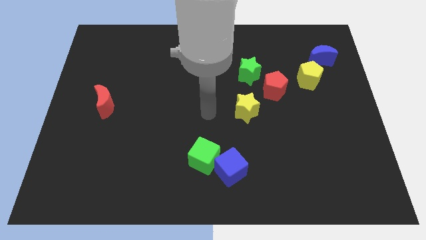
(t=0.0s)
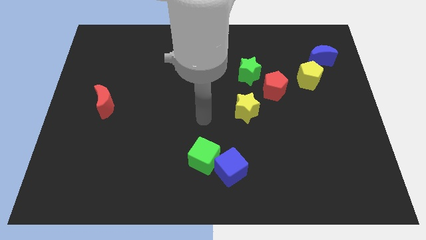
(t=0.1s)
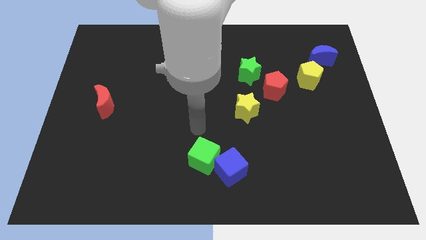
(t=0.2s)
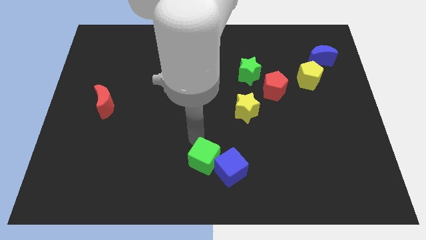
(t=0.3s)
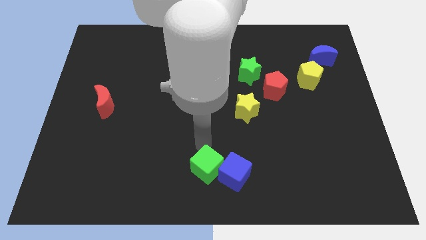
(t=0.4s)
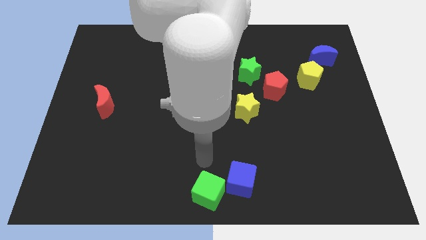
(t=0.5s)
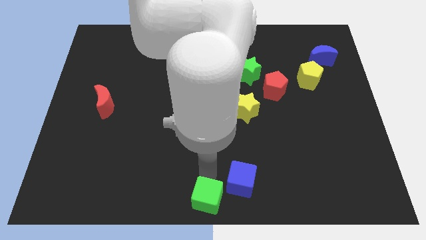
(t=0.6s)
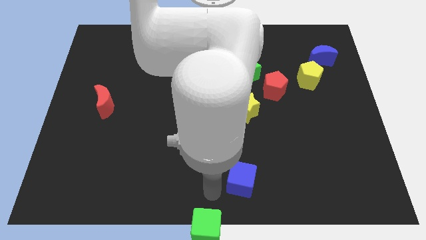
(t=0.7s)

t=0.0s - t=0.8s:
separate the blue cube from the green cube

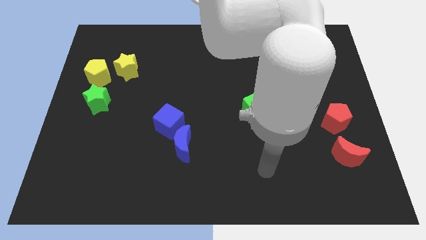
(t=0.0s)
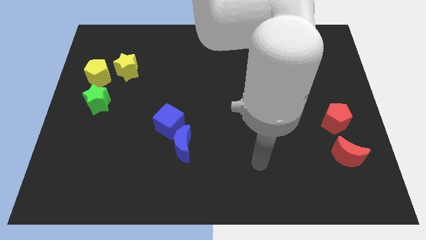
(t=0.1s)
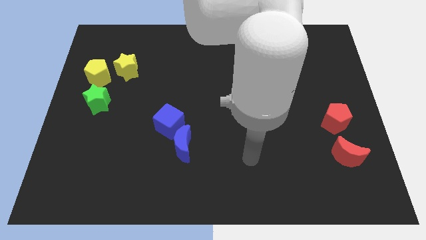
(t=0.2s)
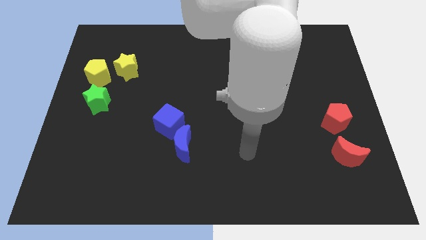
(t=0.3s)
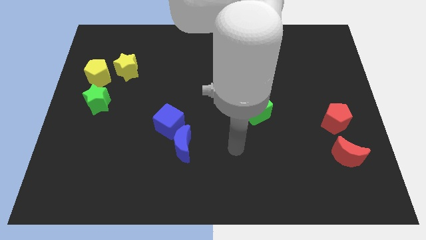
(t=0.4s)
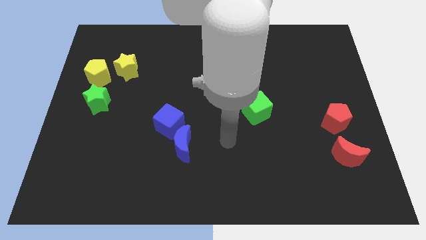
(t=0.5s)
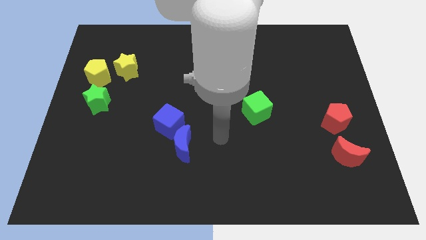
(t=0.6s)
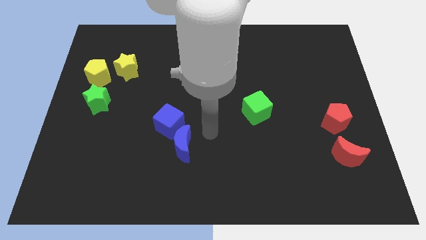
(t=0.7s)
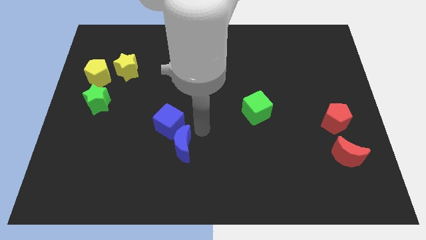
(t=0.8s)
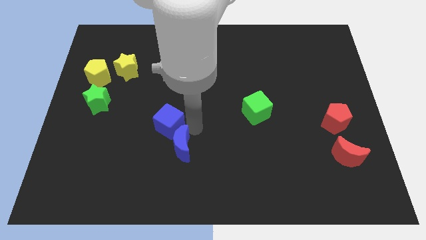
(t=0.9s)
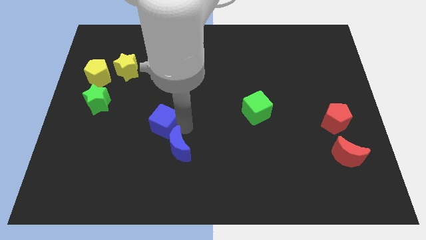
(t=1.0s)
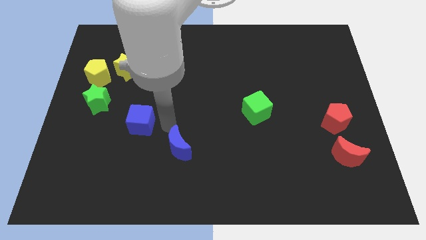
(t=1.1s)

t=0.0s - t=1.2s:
pull the blue moon apart from the blue cube

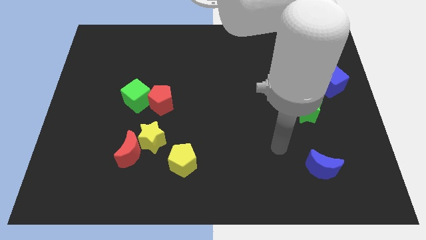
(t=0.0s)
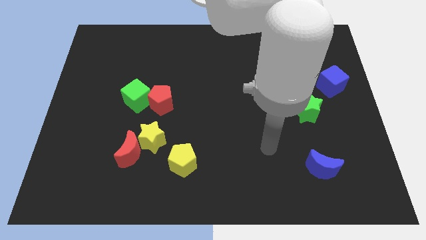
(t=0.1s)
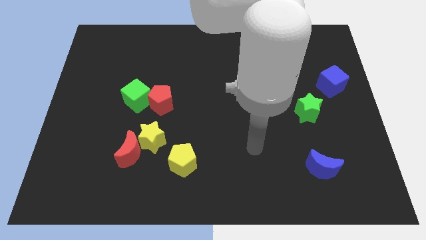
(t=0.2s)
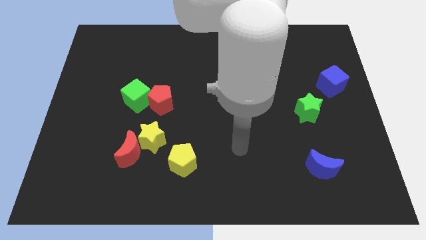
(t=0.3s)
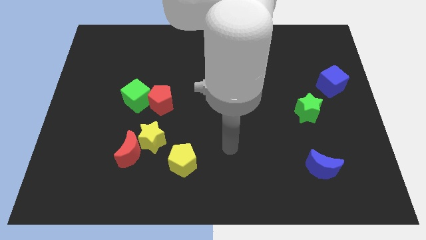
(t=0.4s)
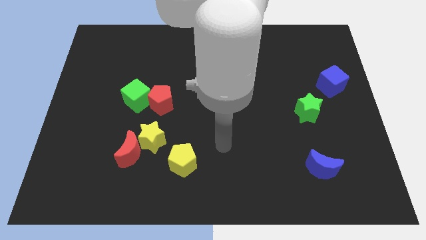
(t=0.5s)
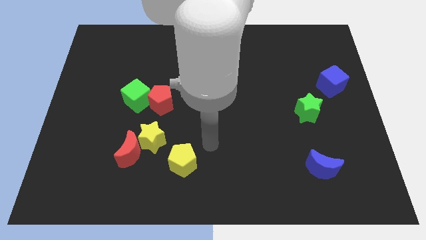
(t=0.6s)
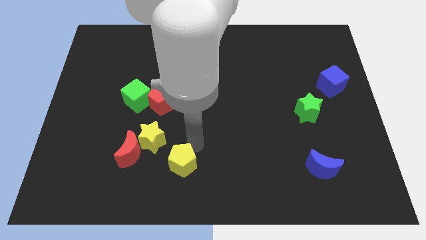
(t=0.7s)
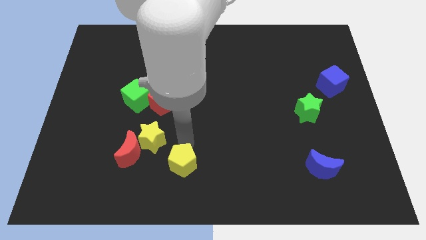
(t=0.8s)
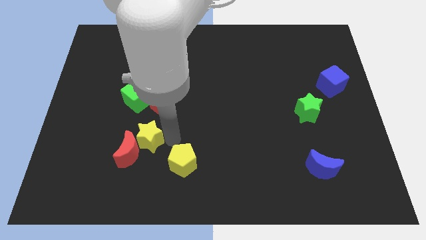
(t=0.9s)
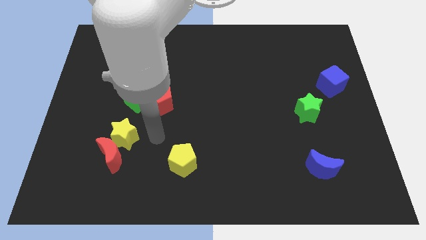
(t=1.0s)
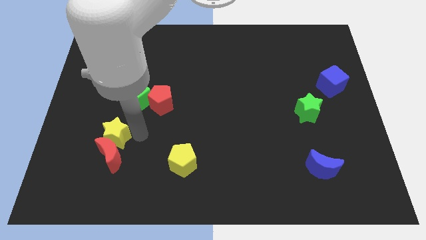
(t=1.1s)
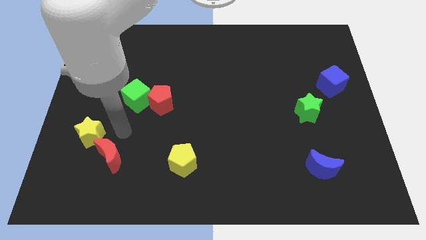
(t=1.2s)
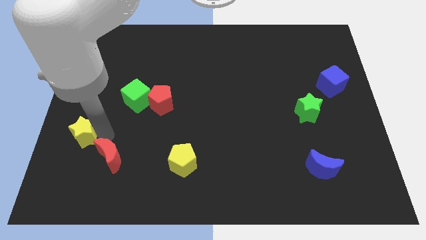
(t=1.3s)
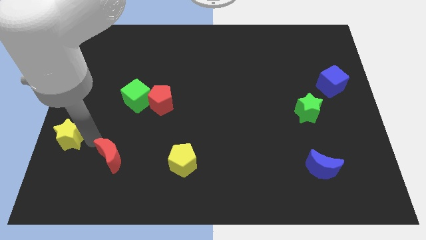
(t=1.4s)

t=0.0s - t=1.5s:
move the red moon away from the yellow star

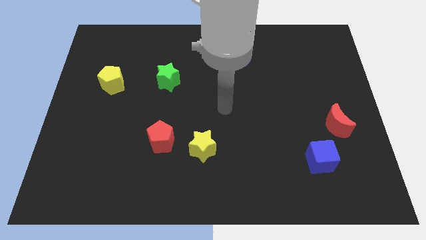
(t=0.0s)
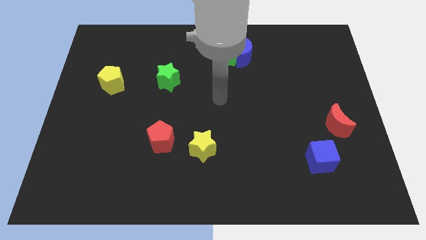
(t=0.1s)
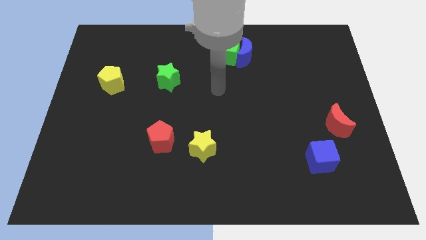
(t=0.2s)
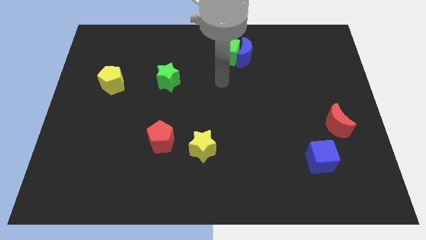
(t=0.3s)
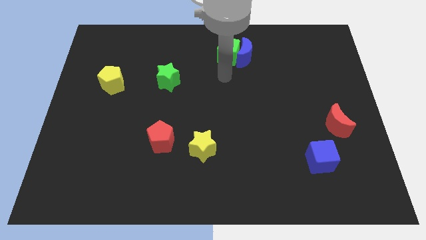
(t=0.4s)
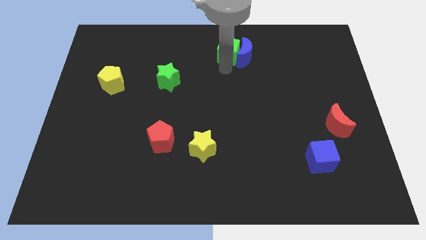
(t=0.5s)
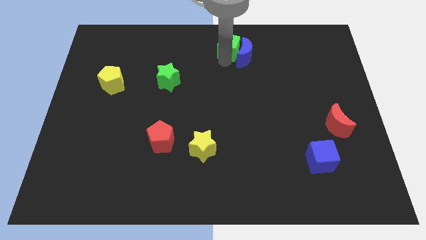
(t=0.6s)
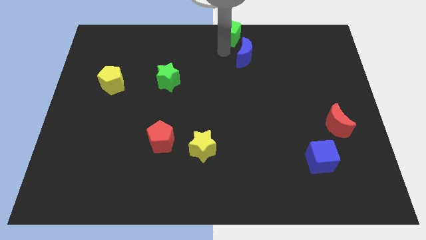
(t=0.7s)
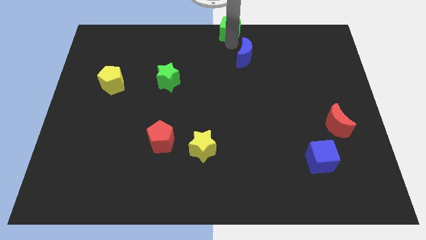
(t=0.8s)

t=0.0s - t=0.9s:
pull the blue moon apart from the green cube

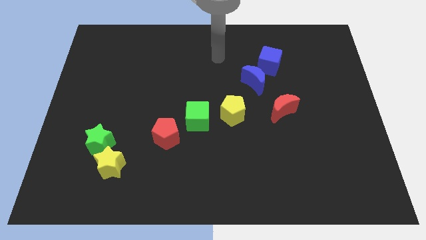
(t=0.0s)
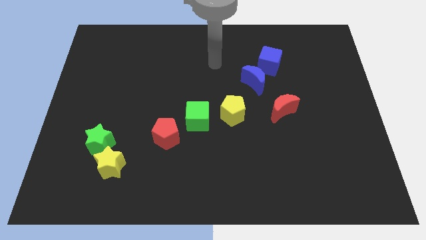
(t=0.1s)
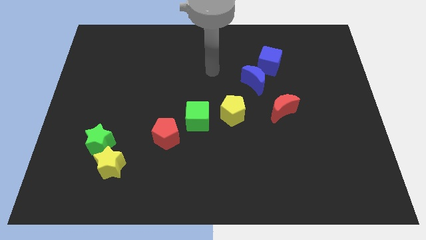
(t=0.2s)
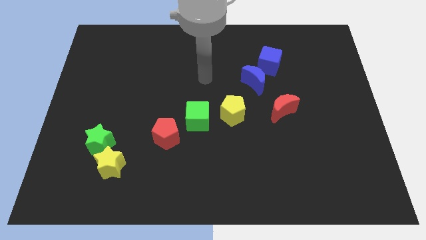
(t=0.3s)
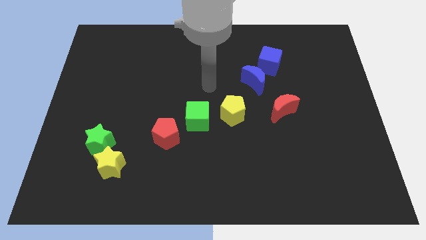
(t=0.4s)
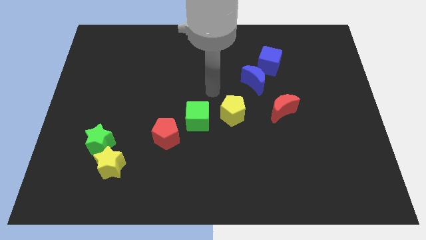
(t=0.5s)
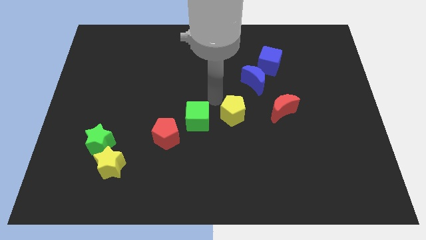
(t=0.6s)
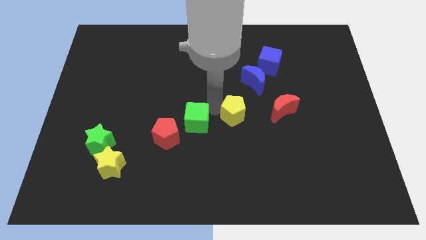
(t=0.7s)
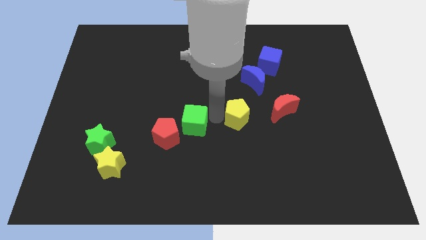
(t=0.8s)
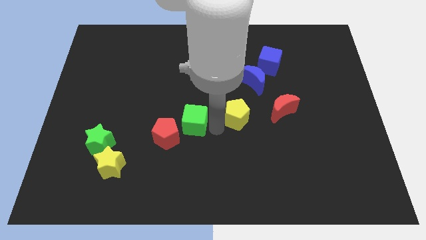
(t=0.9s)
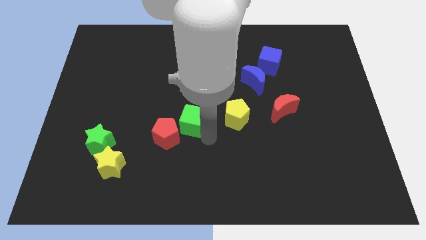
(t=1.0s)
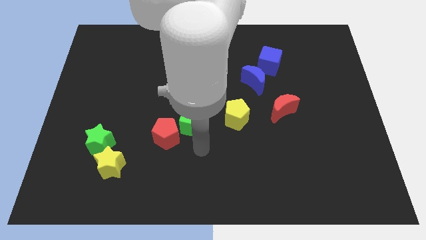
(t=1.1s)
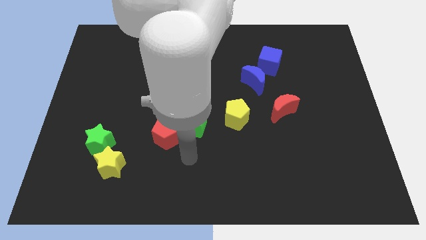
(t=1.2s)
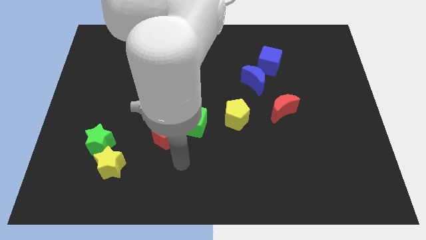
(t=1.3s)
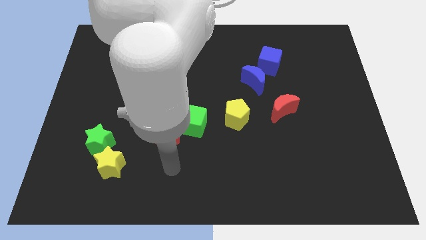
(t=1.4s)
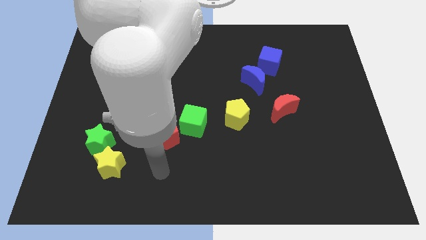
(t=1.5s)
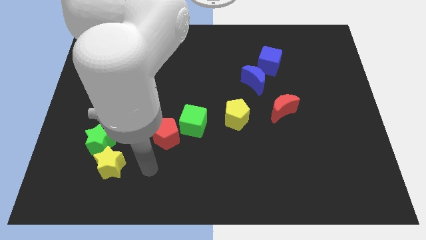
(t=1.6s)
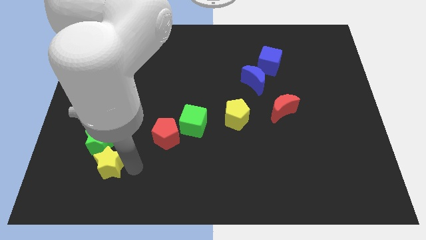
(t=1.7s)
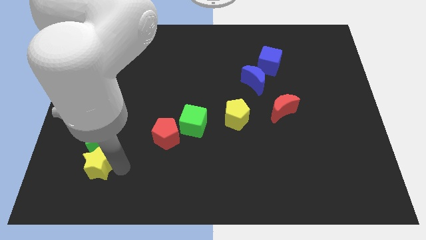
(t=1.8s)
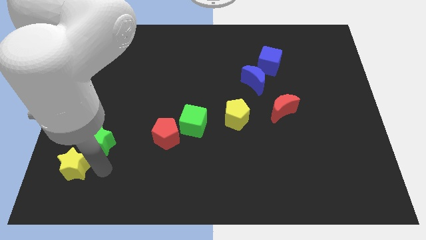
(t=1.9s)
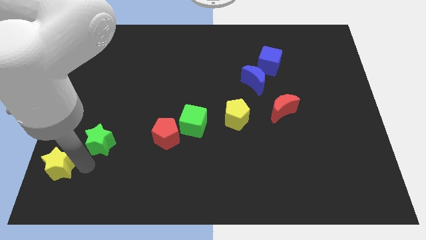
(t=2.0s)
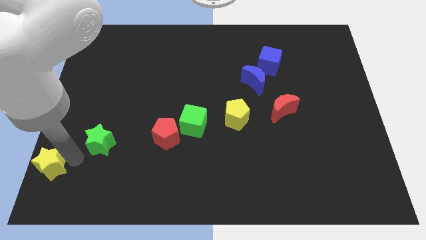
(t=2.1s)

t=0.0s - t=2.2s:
pull the green star apart from the yellow star

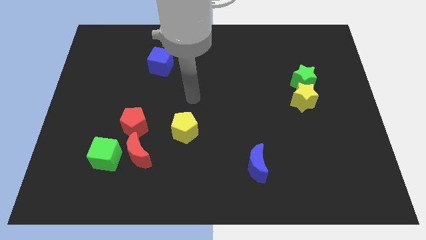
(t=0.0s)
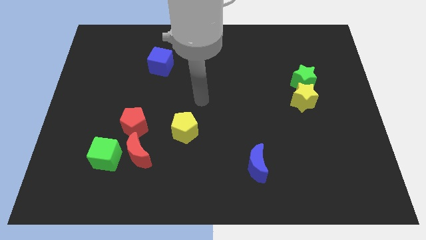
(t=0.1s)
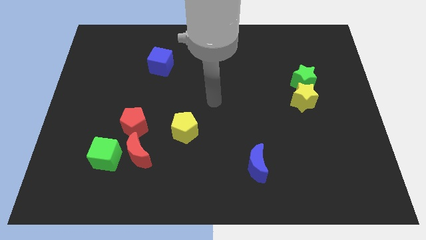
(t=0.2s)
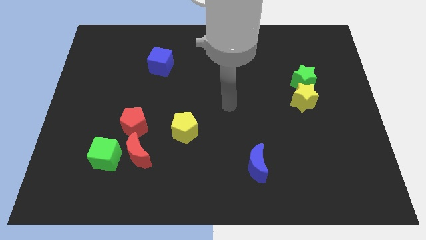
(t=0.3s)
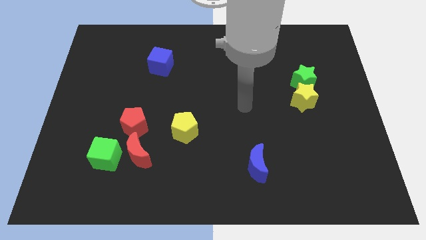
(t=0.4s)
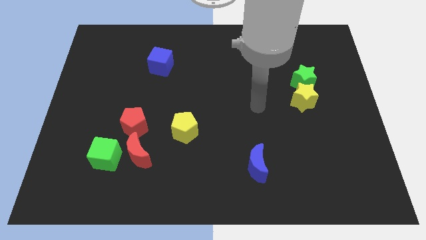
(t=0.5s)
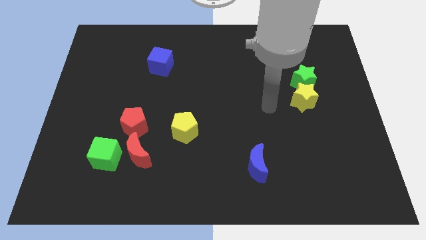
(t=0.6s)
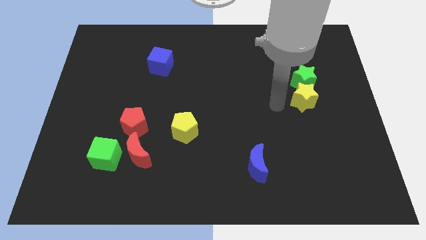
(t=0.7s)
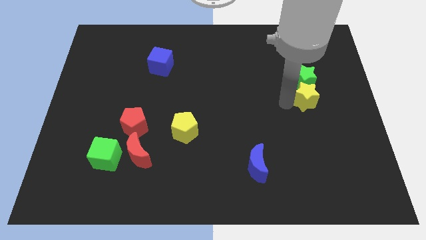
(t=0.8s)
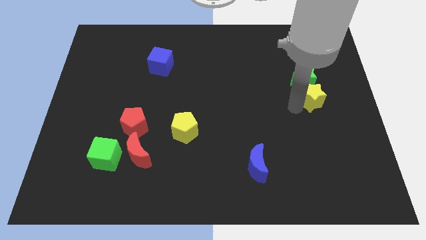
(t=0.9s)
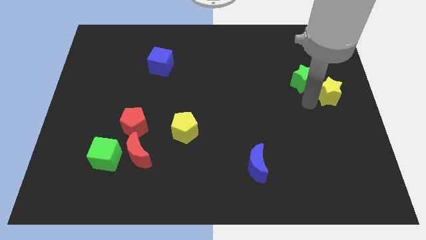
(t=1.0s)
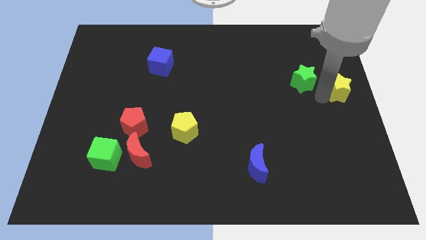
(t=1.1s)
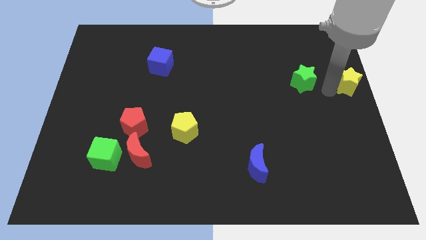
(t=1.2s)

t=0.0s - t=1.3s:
move the green star away from the yellow star

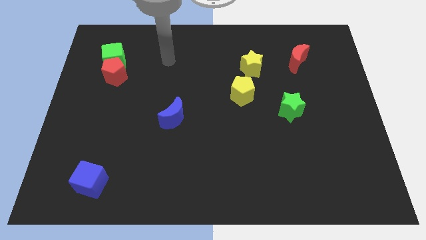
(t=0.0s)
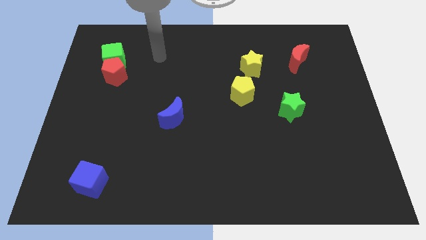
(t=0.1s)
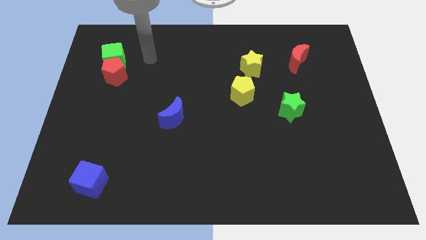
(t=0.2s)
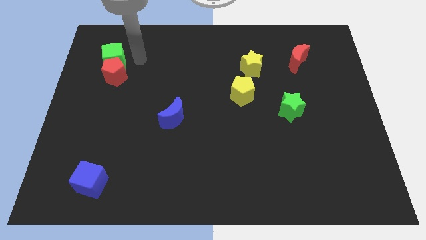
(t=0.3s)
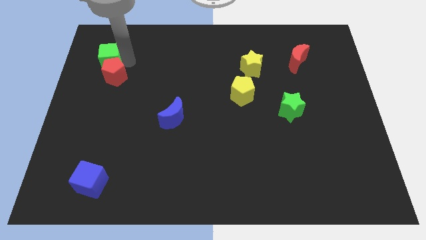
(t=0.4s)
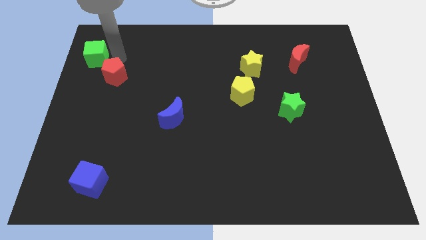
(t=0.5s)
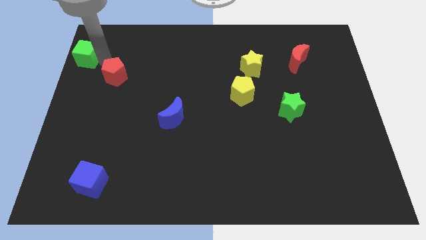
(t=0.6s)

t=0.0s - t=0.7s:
move the red pentagon away from the green cube

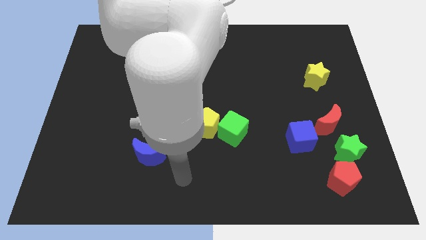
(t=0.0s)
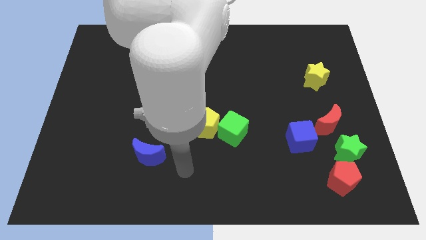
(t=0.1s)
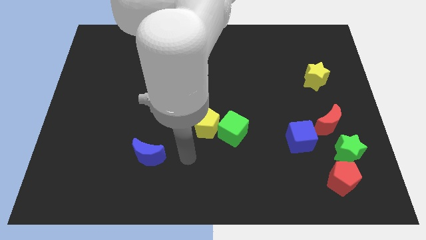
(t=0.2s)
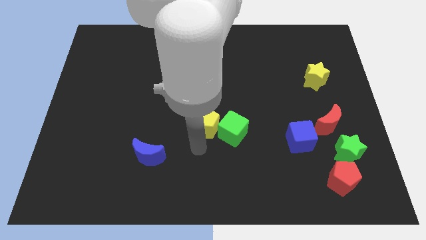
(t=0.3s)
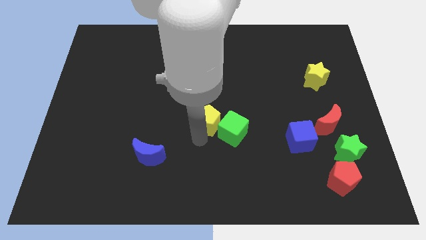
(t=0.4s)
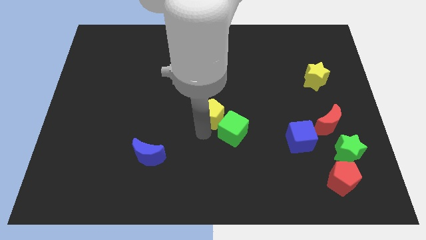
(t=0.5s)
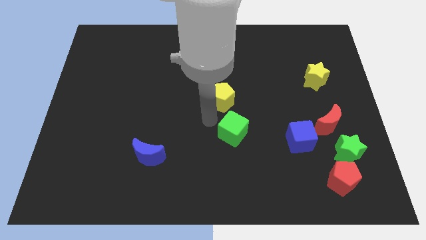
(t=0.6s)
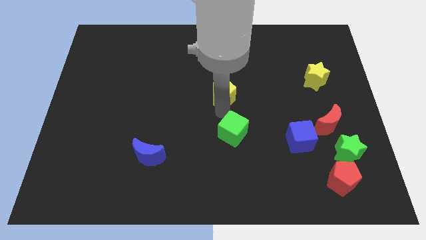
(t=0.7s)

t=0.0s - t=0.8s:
move the green cube away from the yellow pentagon
